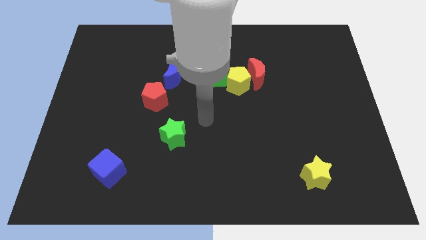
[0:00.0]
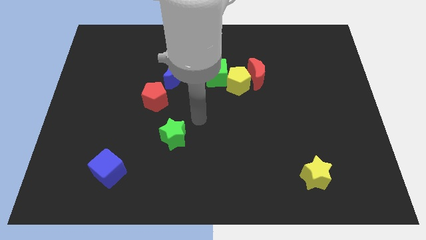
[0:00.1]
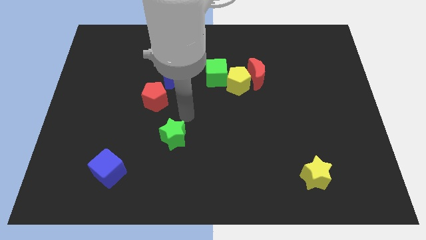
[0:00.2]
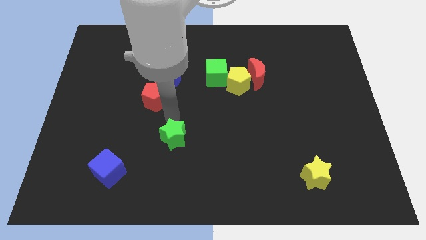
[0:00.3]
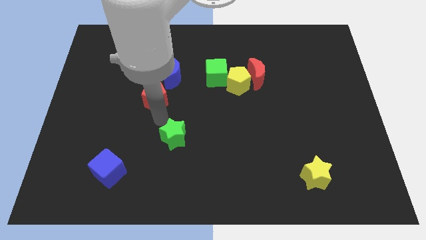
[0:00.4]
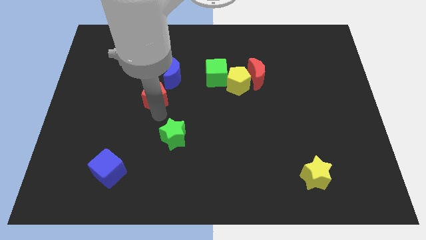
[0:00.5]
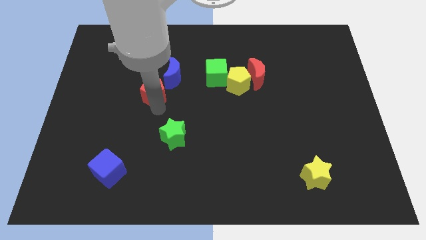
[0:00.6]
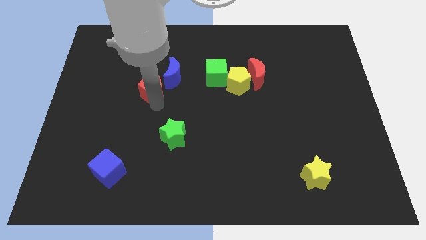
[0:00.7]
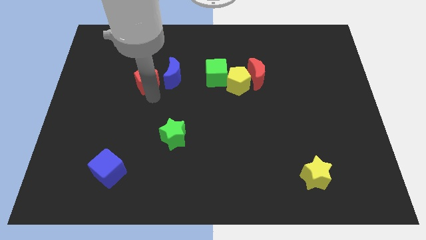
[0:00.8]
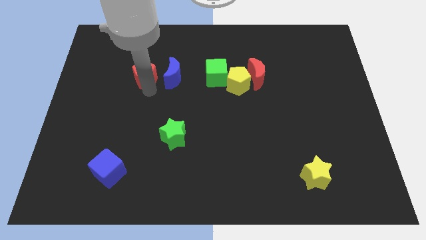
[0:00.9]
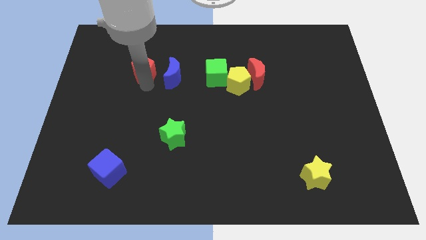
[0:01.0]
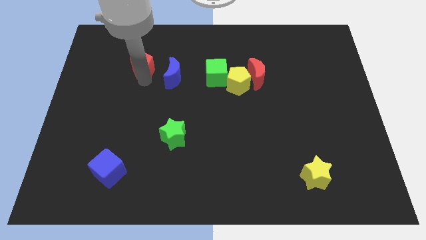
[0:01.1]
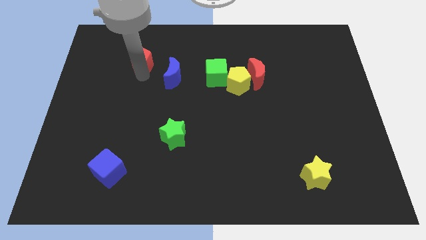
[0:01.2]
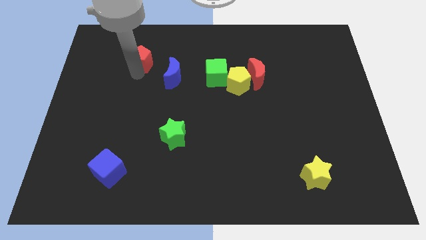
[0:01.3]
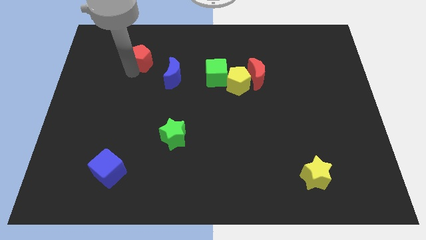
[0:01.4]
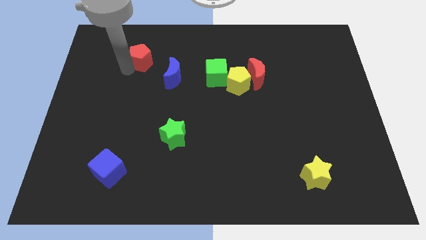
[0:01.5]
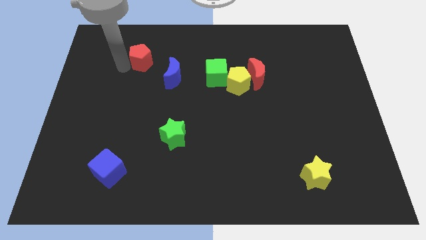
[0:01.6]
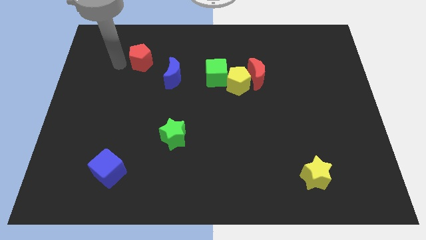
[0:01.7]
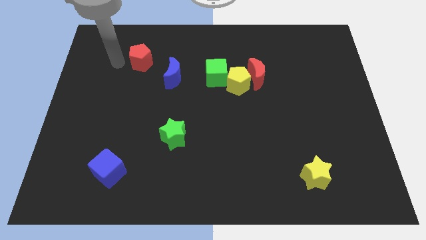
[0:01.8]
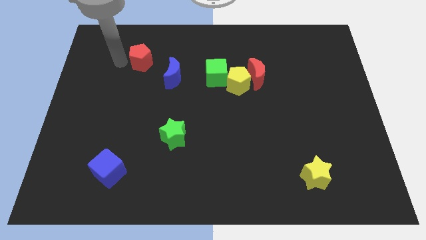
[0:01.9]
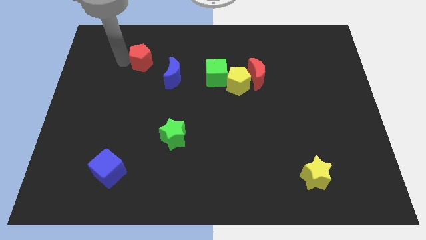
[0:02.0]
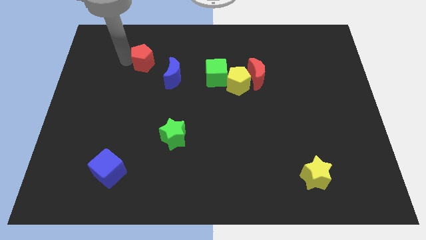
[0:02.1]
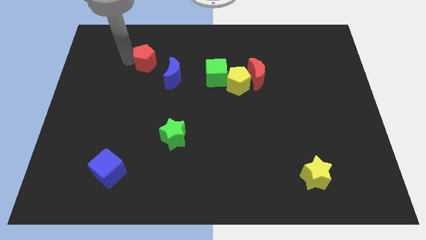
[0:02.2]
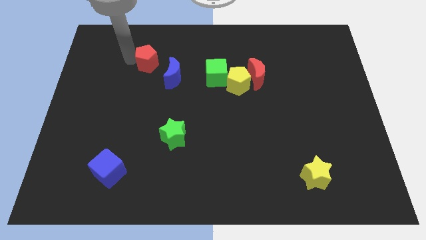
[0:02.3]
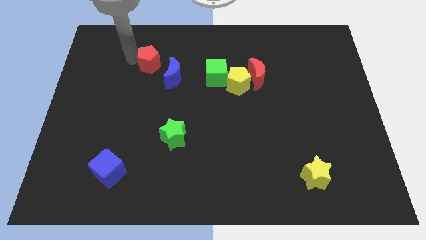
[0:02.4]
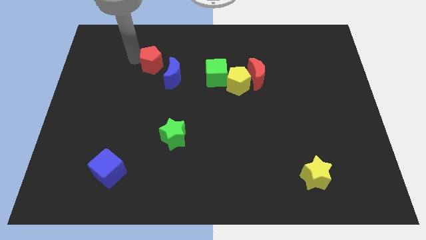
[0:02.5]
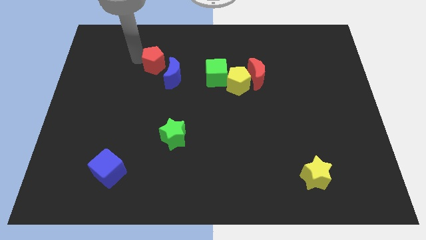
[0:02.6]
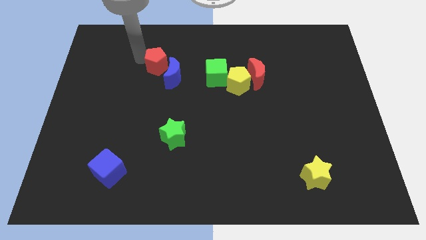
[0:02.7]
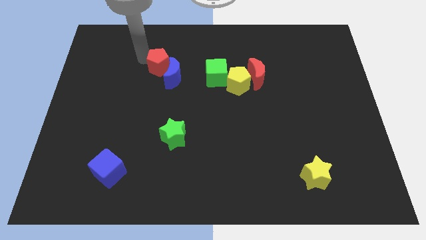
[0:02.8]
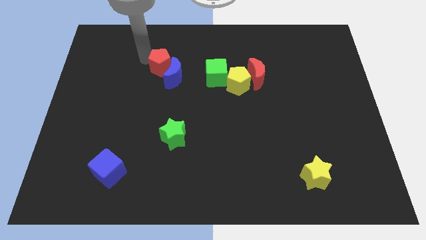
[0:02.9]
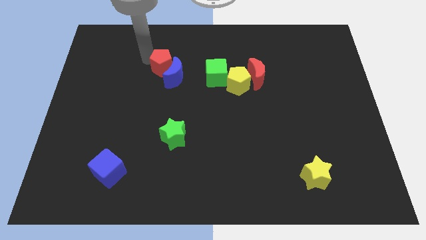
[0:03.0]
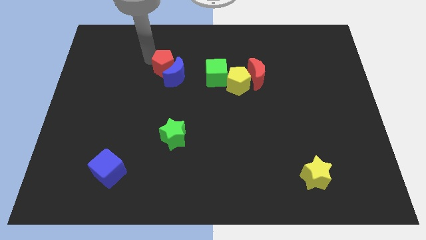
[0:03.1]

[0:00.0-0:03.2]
slide the red pentagon a bit up and right

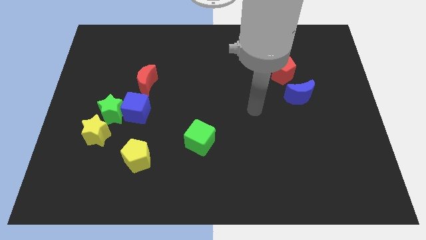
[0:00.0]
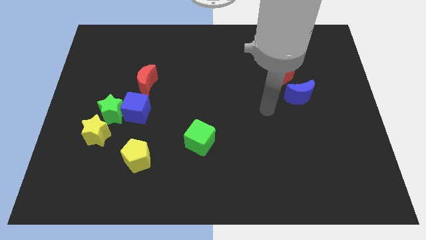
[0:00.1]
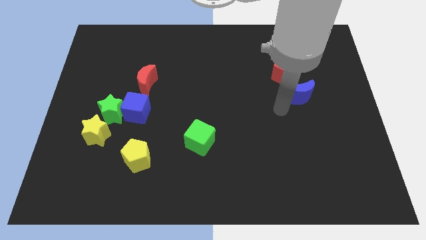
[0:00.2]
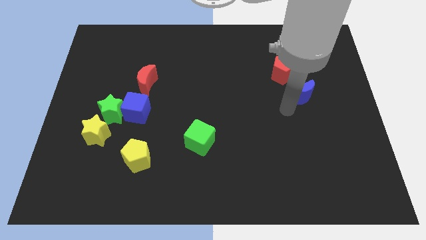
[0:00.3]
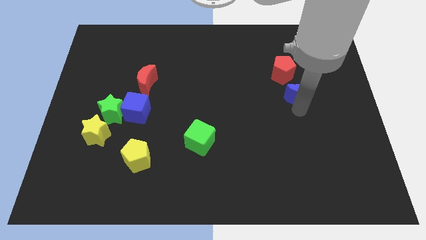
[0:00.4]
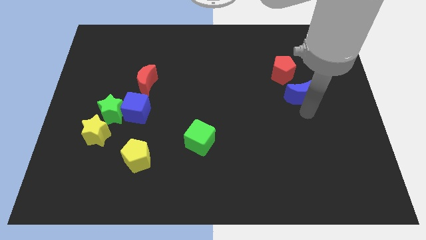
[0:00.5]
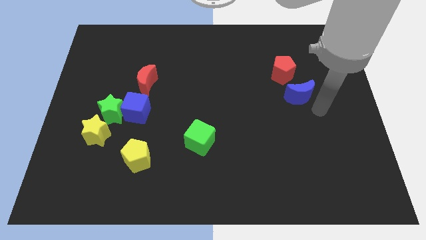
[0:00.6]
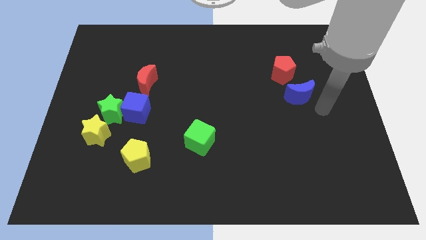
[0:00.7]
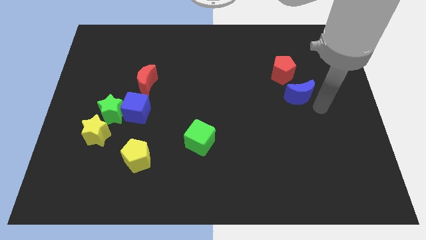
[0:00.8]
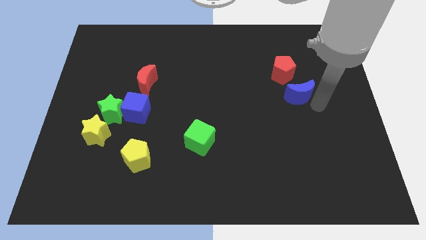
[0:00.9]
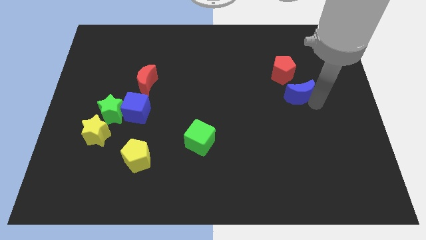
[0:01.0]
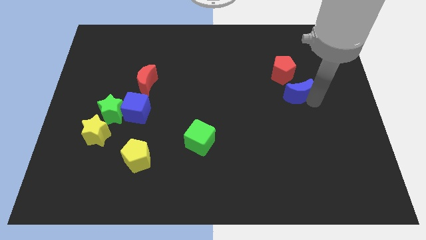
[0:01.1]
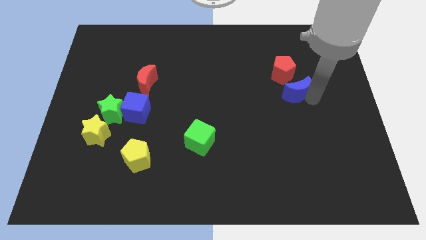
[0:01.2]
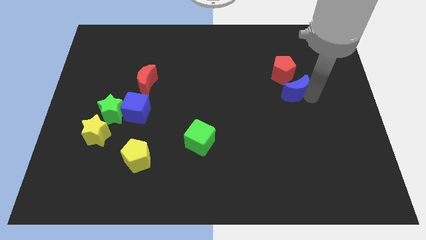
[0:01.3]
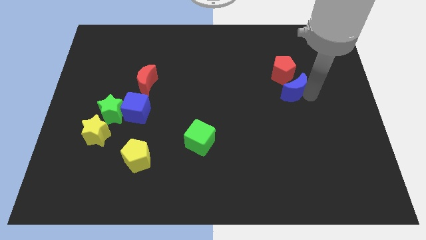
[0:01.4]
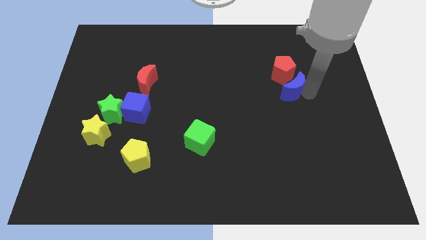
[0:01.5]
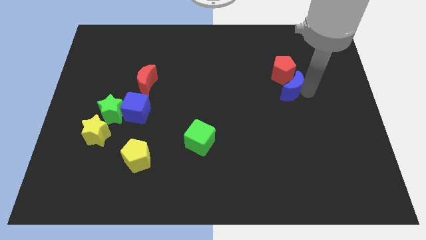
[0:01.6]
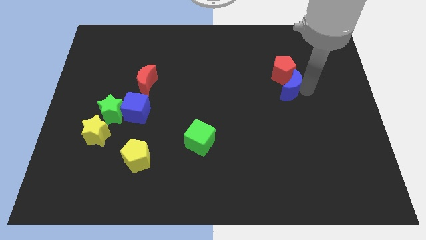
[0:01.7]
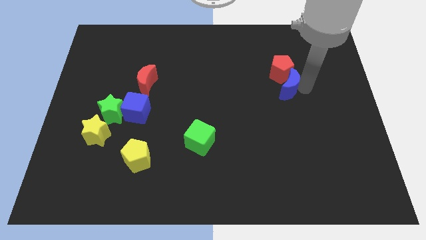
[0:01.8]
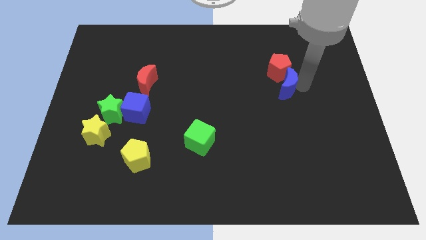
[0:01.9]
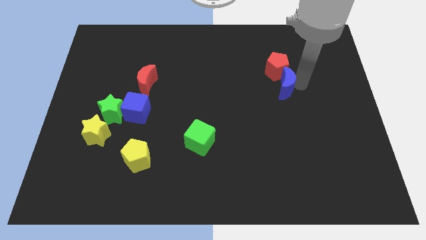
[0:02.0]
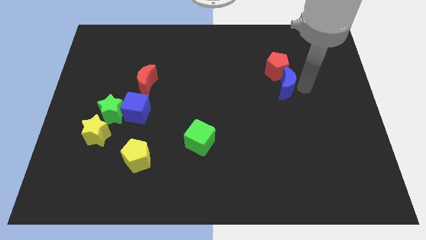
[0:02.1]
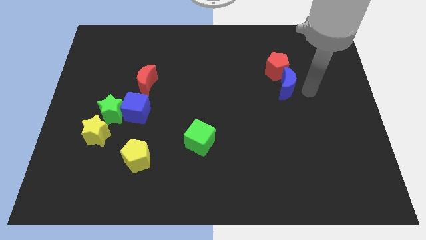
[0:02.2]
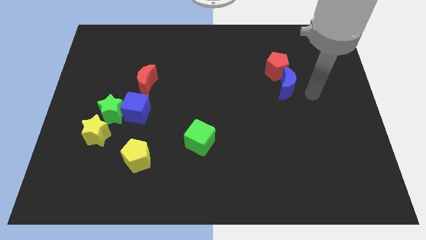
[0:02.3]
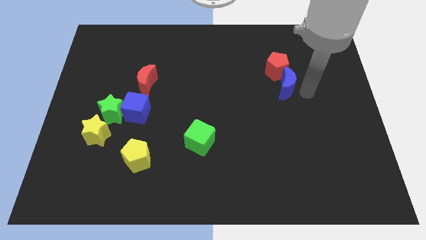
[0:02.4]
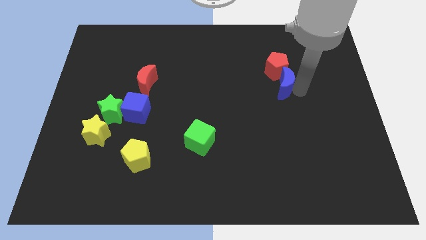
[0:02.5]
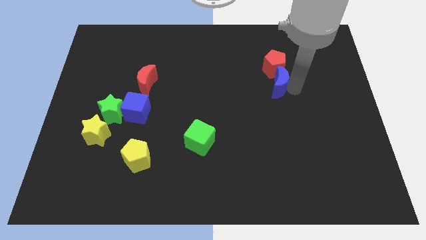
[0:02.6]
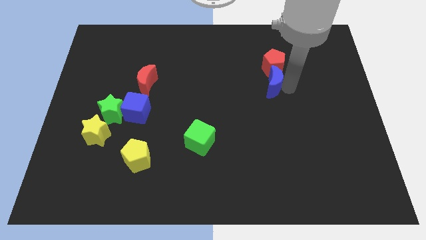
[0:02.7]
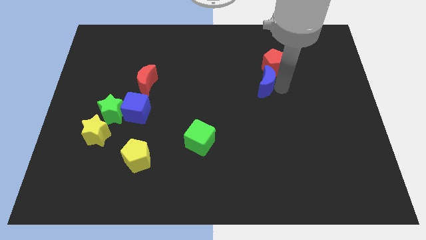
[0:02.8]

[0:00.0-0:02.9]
slightly move the blue moon up and left diagonally

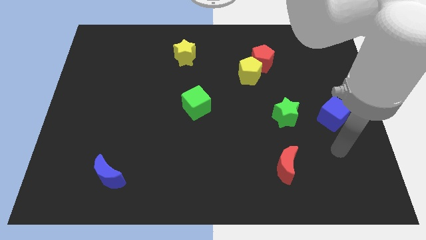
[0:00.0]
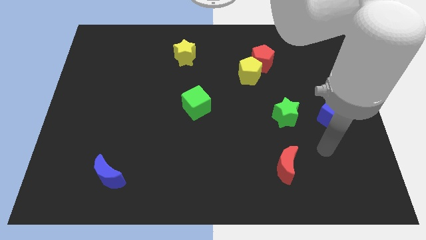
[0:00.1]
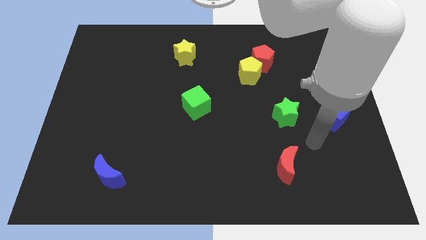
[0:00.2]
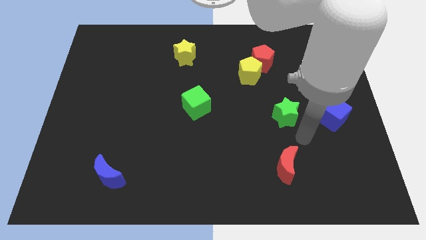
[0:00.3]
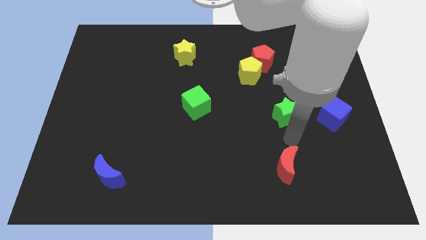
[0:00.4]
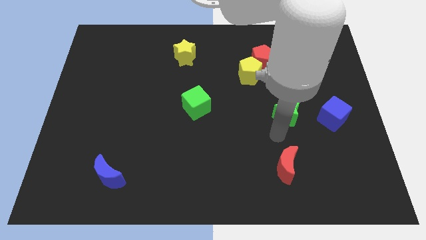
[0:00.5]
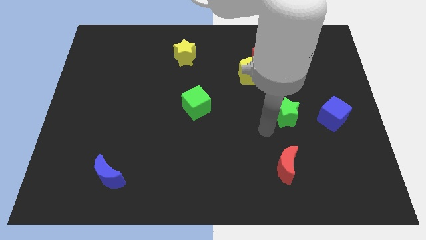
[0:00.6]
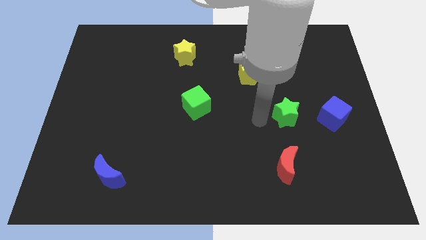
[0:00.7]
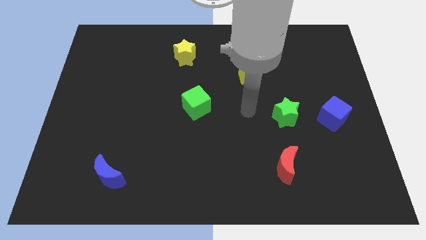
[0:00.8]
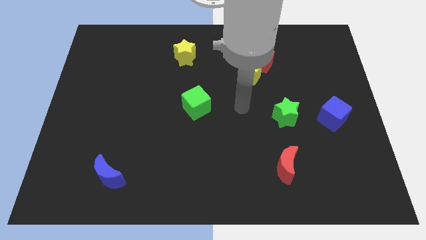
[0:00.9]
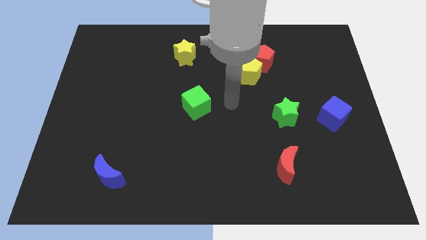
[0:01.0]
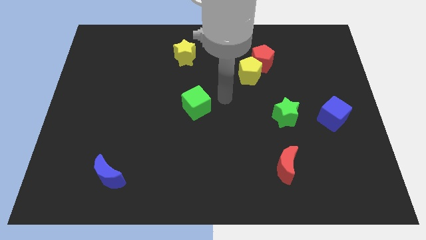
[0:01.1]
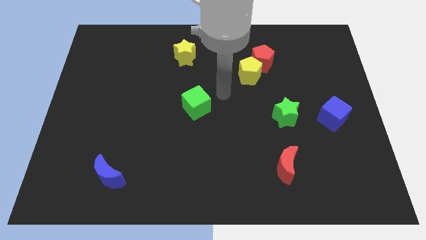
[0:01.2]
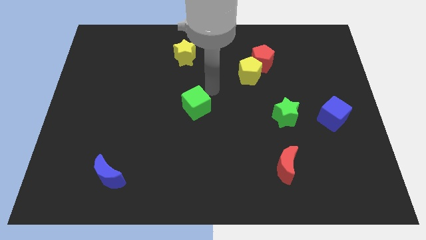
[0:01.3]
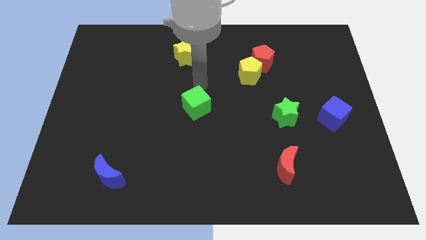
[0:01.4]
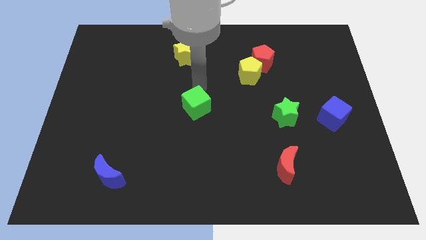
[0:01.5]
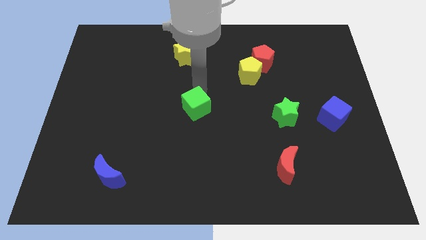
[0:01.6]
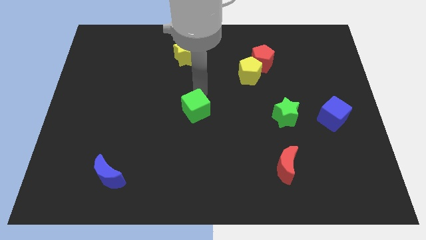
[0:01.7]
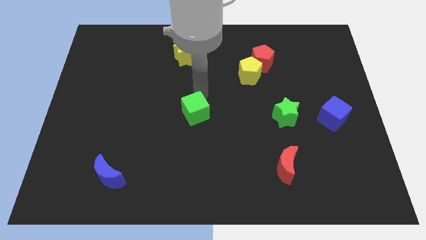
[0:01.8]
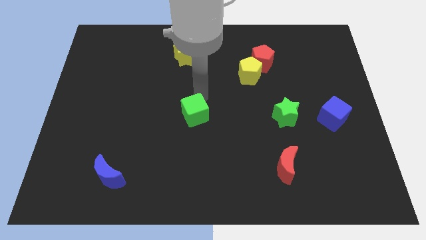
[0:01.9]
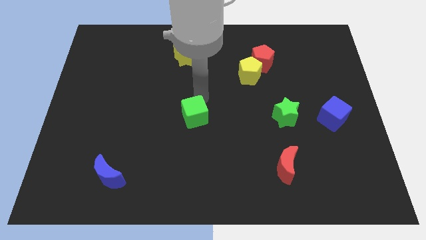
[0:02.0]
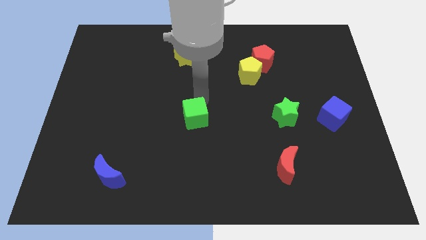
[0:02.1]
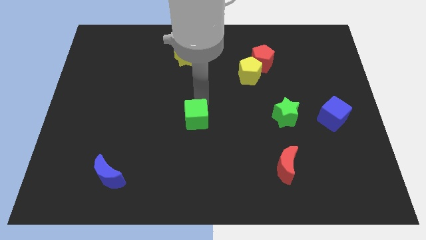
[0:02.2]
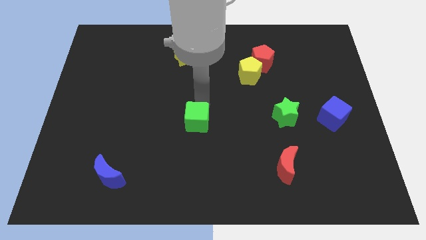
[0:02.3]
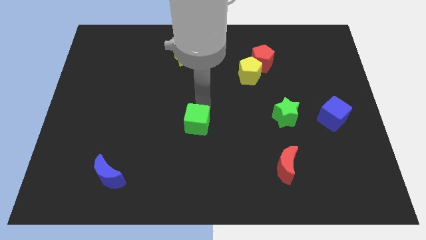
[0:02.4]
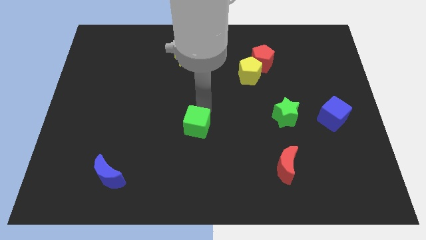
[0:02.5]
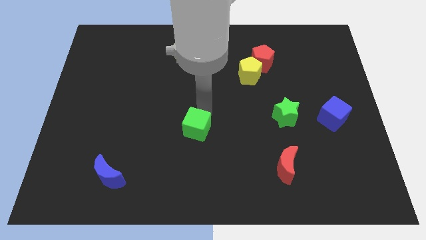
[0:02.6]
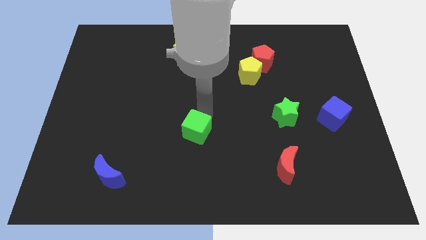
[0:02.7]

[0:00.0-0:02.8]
slide the green cube downwards a bit
